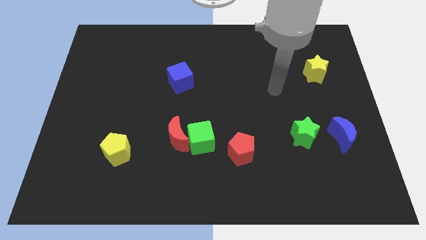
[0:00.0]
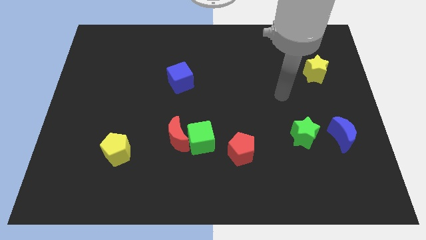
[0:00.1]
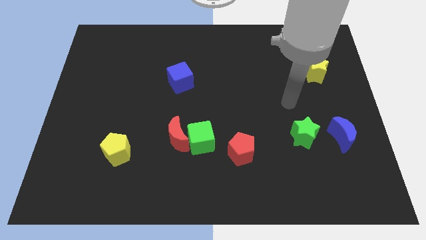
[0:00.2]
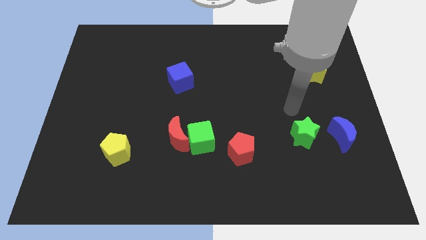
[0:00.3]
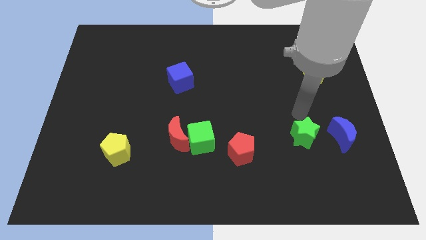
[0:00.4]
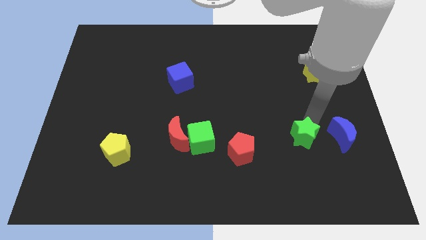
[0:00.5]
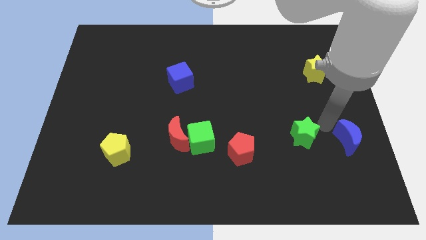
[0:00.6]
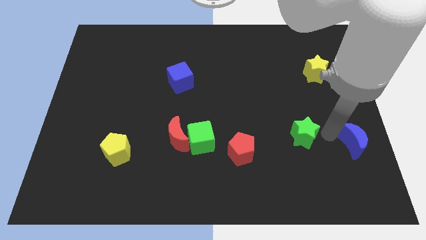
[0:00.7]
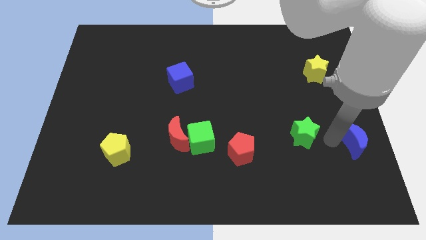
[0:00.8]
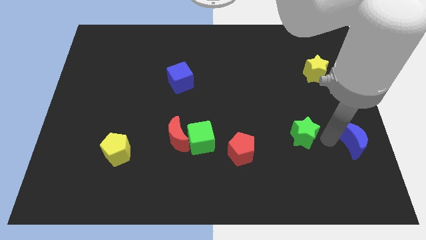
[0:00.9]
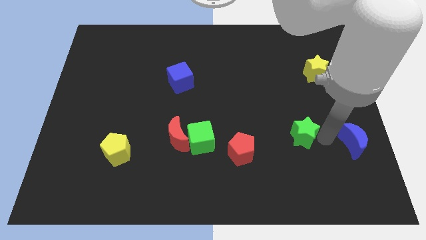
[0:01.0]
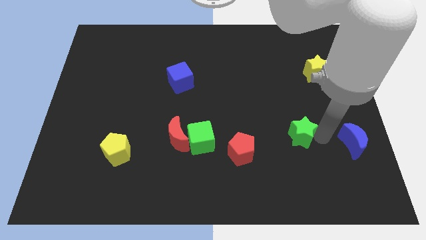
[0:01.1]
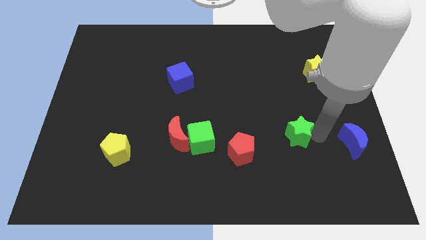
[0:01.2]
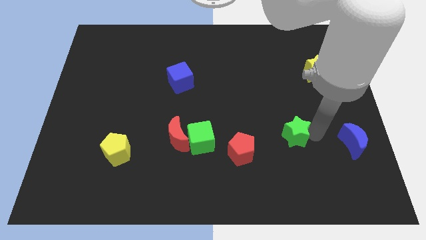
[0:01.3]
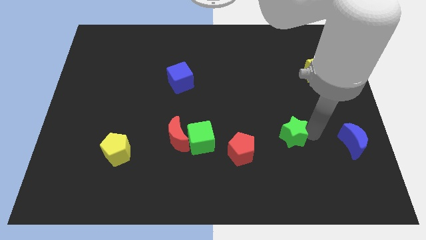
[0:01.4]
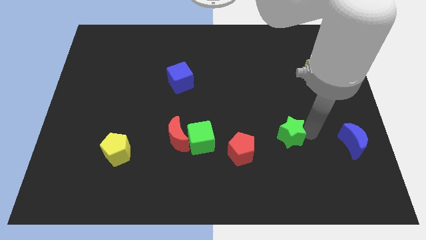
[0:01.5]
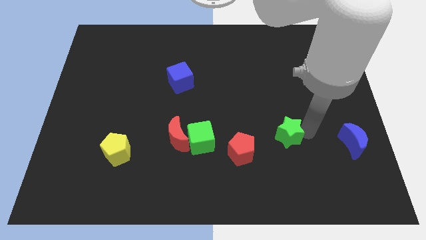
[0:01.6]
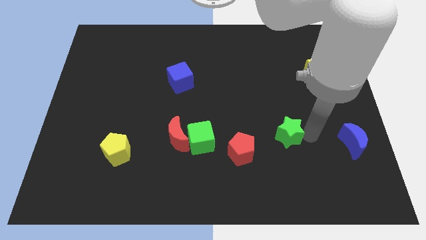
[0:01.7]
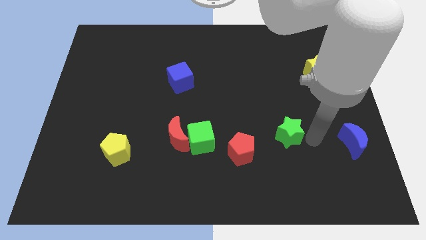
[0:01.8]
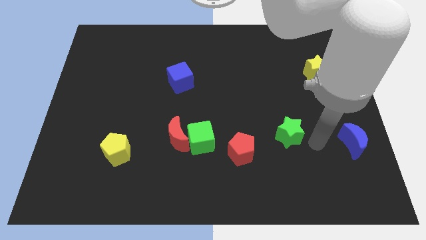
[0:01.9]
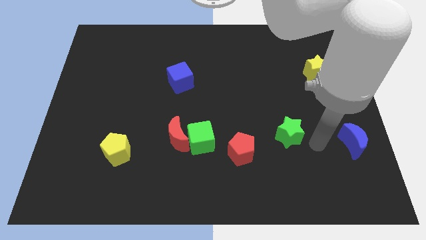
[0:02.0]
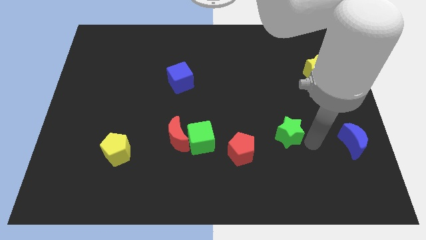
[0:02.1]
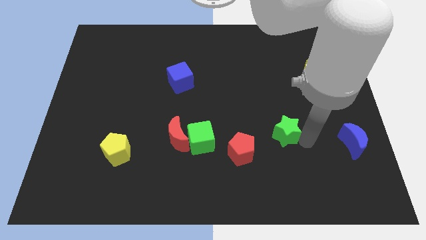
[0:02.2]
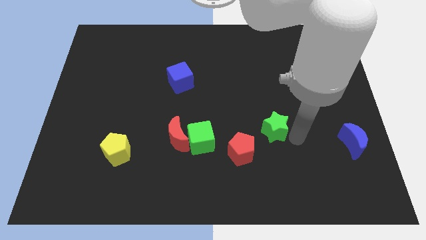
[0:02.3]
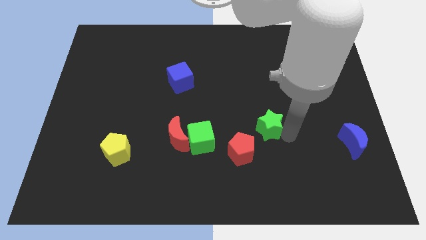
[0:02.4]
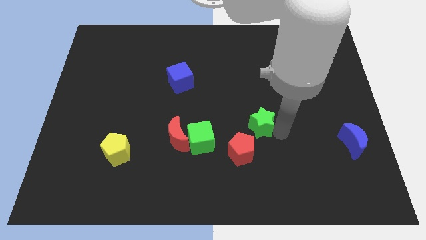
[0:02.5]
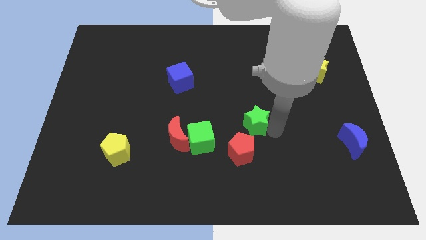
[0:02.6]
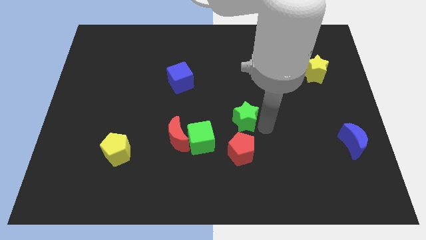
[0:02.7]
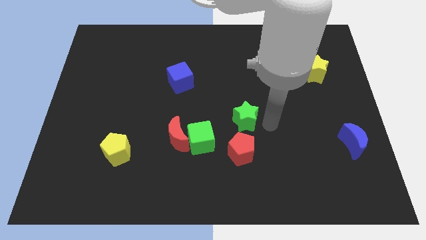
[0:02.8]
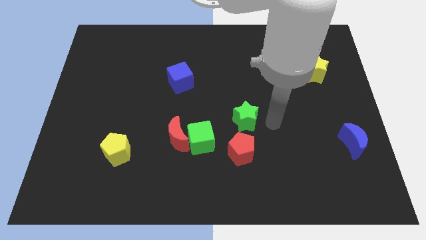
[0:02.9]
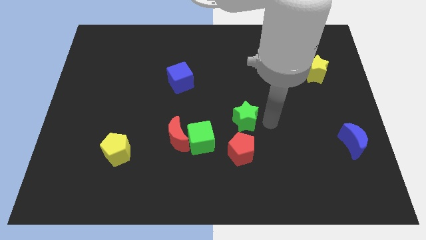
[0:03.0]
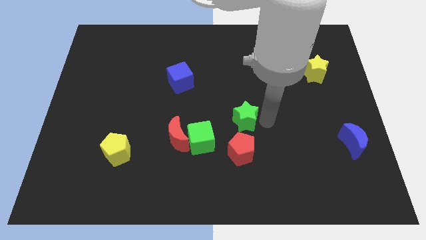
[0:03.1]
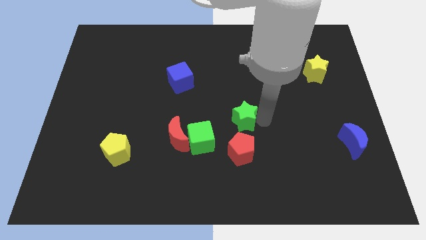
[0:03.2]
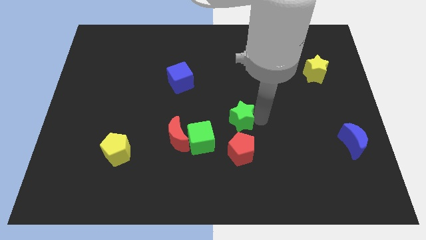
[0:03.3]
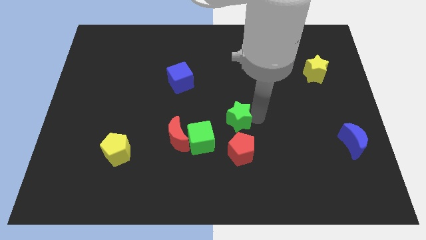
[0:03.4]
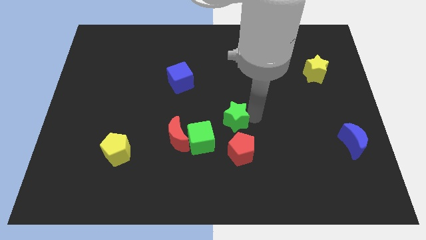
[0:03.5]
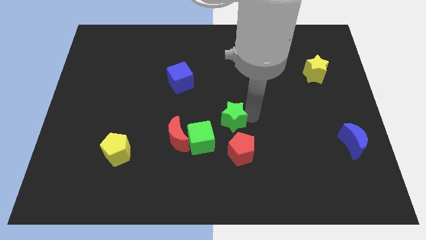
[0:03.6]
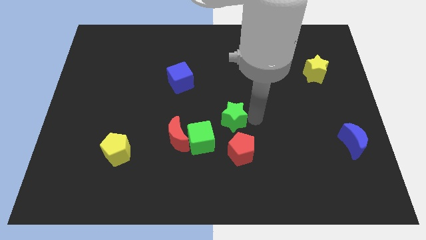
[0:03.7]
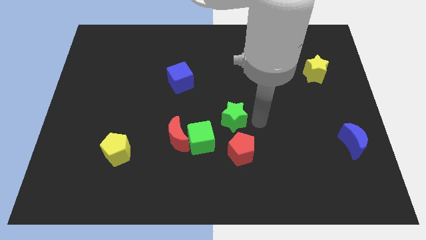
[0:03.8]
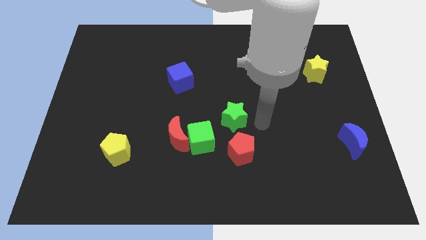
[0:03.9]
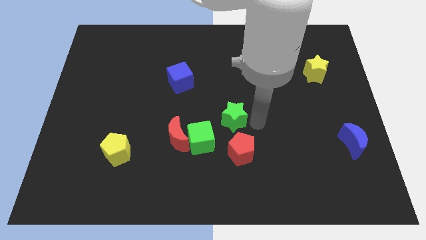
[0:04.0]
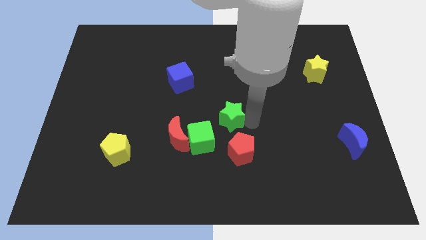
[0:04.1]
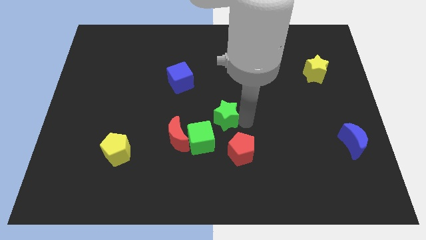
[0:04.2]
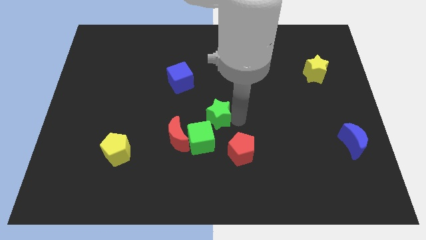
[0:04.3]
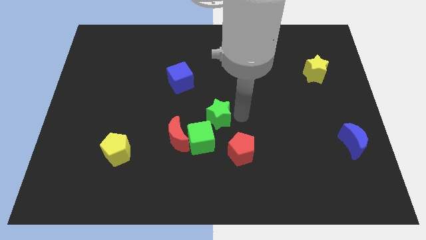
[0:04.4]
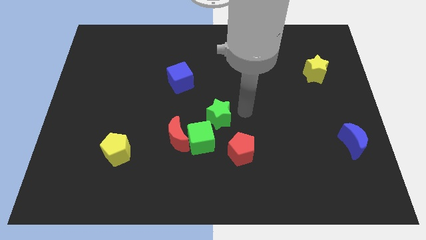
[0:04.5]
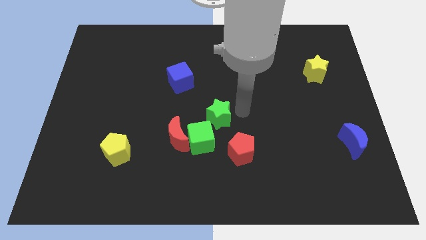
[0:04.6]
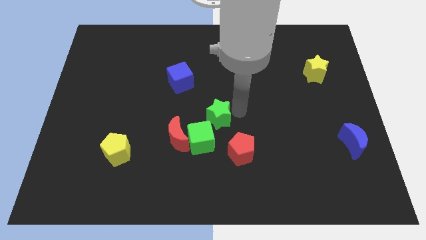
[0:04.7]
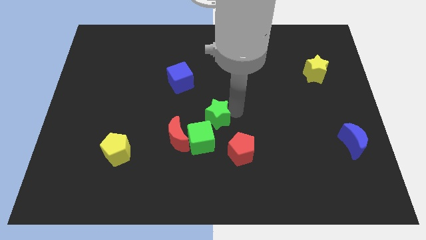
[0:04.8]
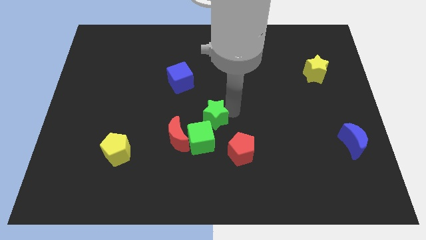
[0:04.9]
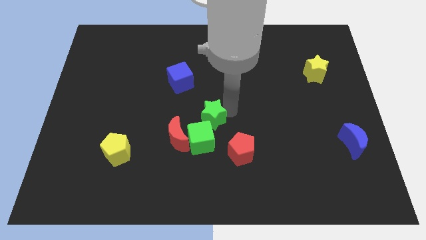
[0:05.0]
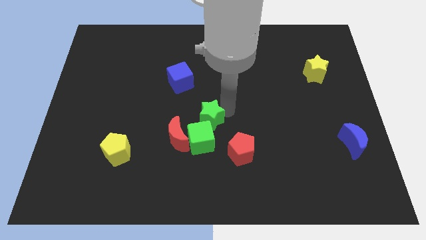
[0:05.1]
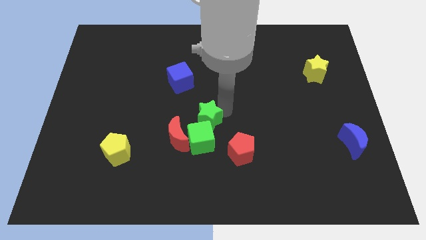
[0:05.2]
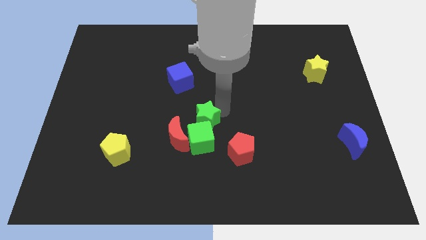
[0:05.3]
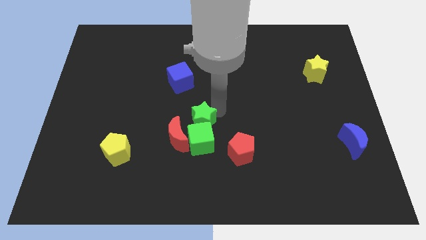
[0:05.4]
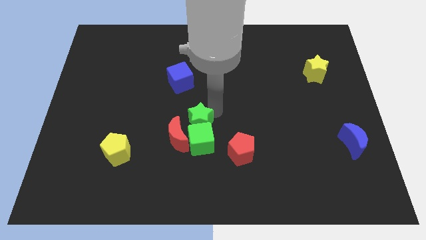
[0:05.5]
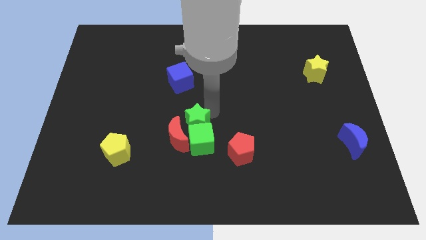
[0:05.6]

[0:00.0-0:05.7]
slide the green star to the red moon

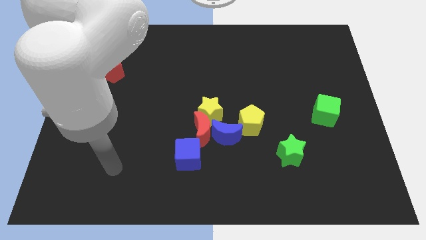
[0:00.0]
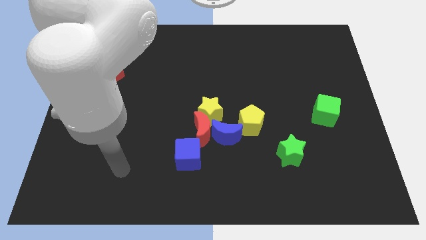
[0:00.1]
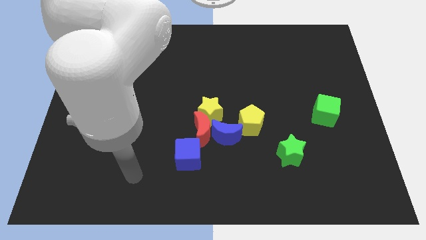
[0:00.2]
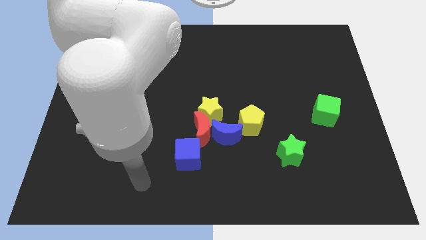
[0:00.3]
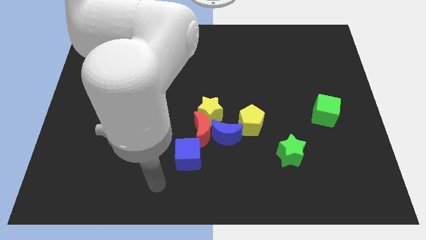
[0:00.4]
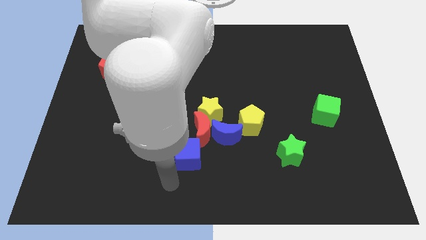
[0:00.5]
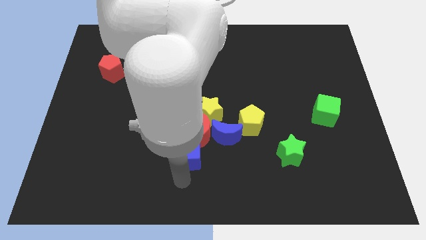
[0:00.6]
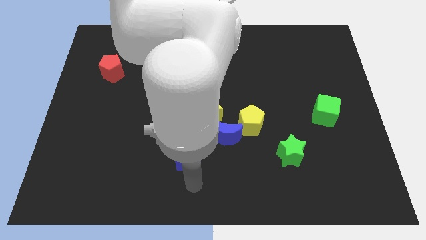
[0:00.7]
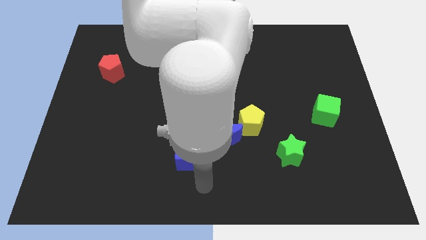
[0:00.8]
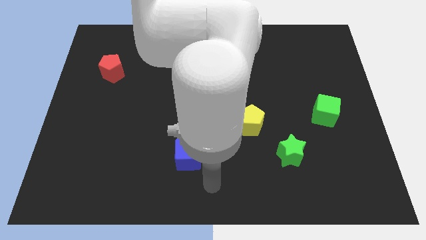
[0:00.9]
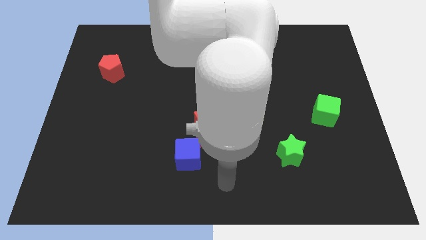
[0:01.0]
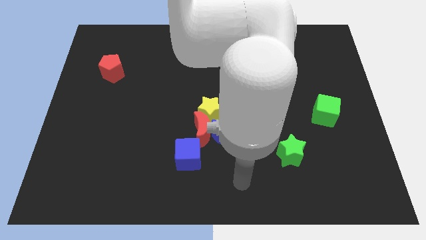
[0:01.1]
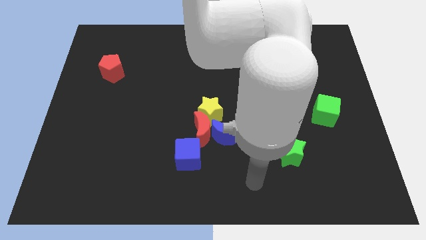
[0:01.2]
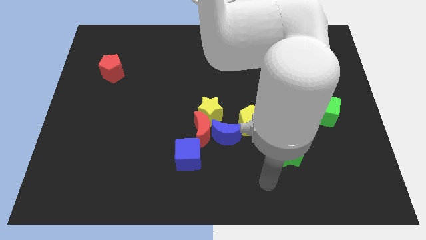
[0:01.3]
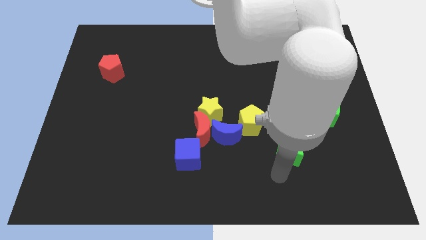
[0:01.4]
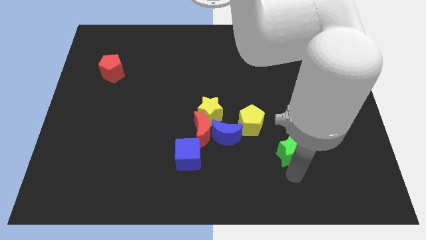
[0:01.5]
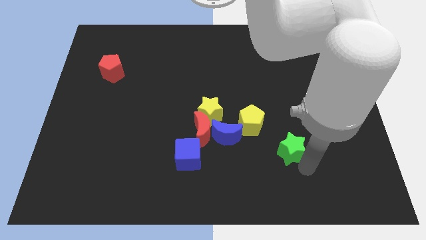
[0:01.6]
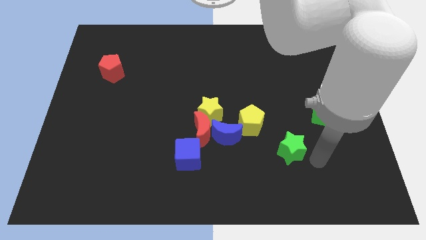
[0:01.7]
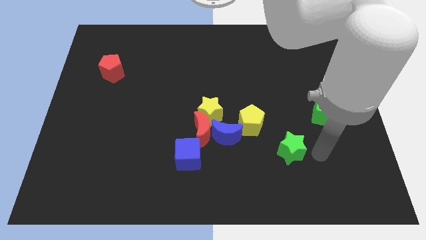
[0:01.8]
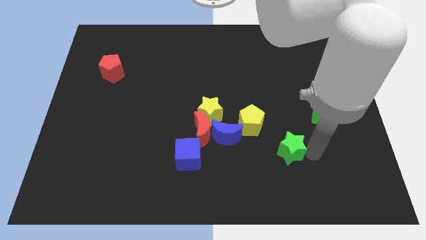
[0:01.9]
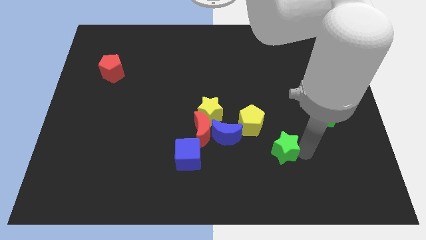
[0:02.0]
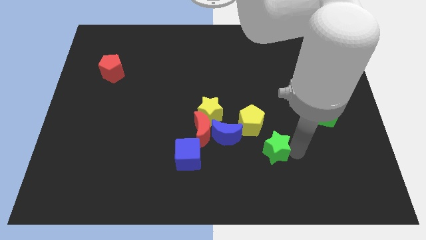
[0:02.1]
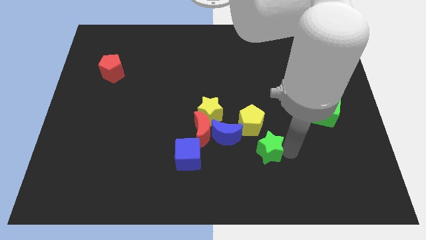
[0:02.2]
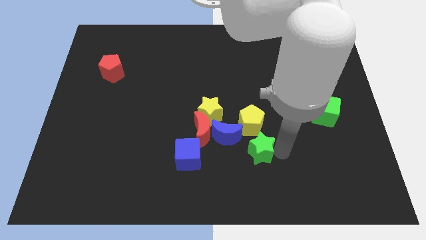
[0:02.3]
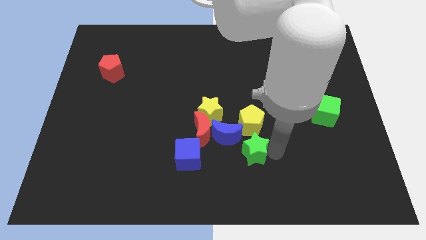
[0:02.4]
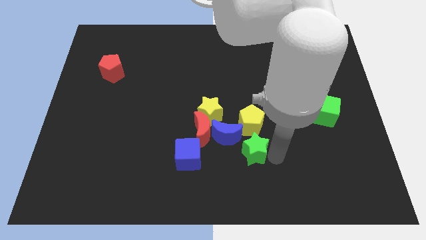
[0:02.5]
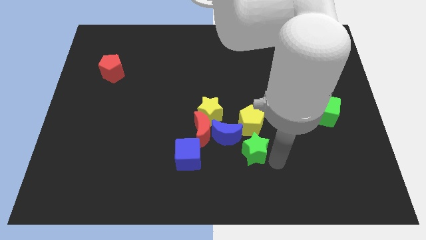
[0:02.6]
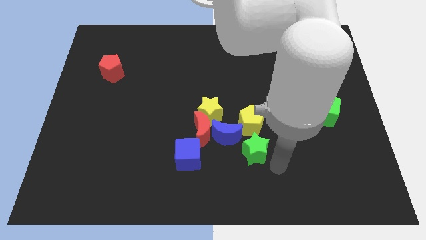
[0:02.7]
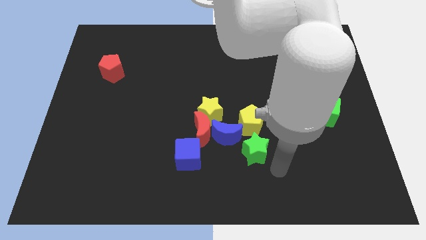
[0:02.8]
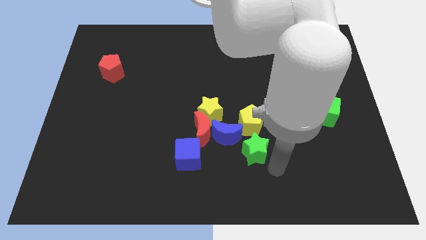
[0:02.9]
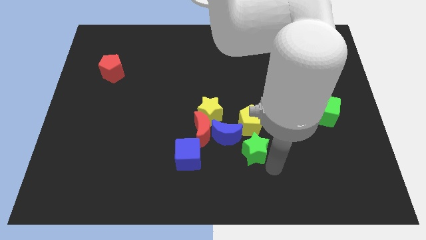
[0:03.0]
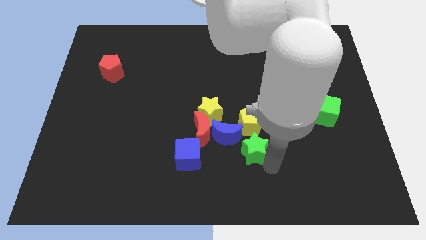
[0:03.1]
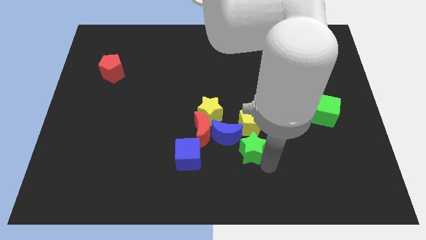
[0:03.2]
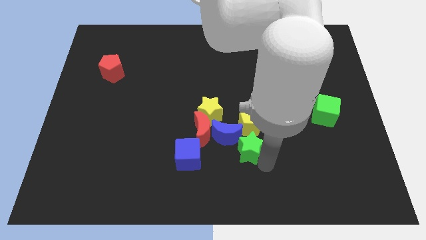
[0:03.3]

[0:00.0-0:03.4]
put the green star to the blue moon
